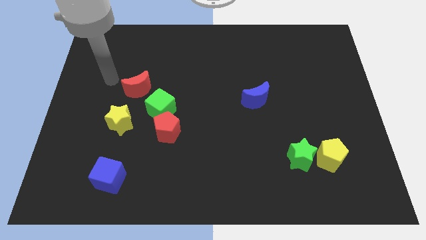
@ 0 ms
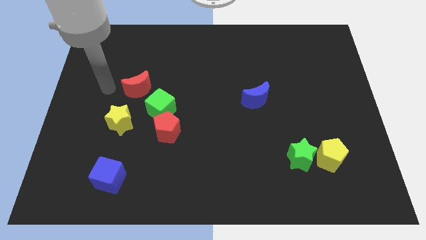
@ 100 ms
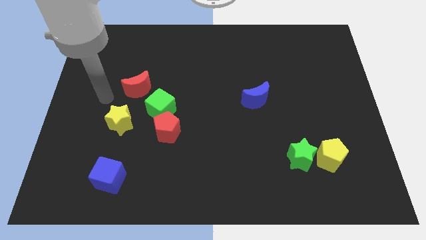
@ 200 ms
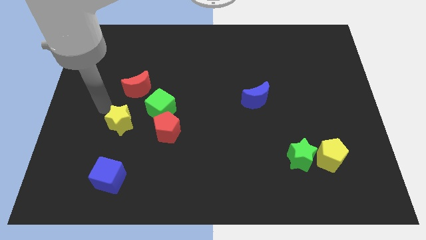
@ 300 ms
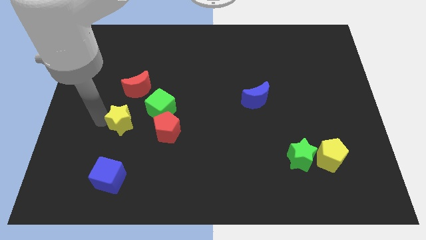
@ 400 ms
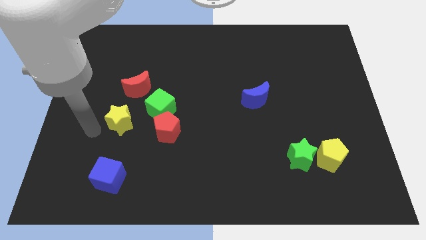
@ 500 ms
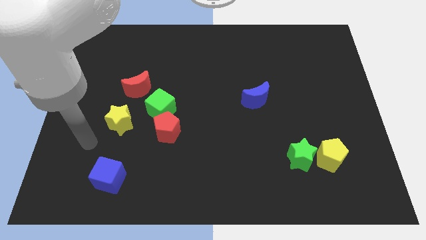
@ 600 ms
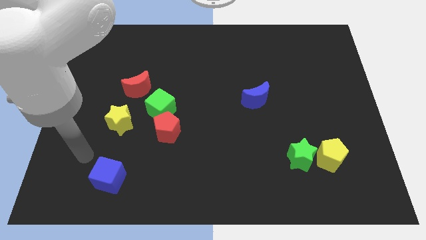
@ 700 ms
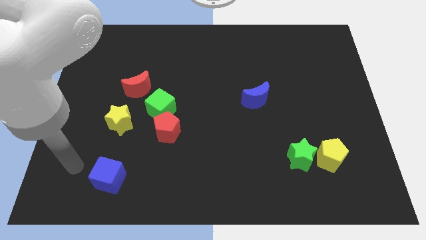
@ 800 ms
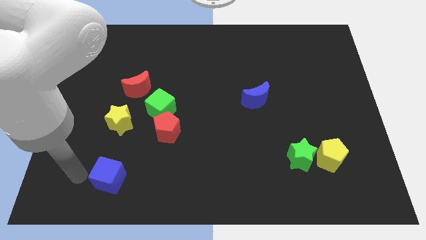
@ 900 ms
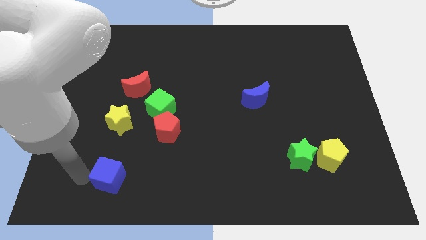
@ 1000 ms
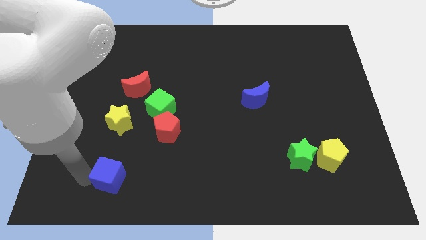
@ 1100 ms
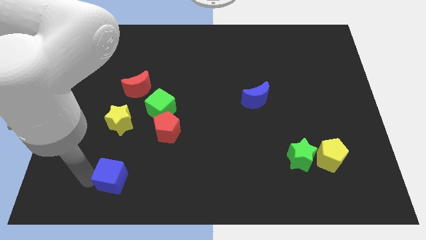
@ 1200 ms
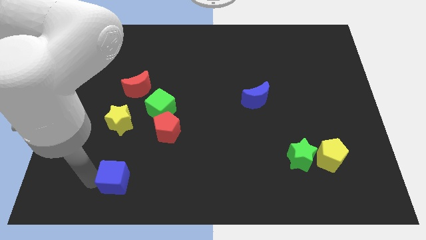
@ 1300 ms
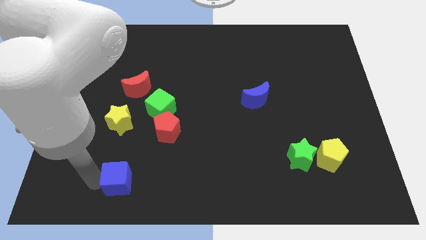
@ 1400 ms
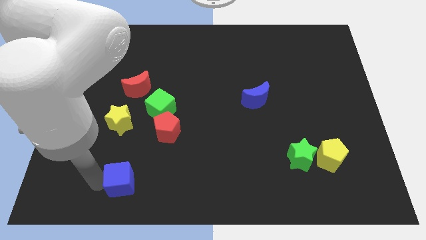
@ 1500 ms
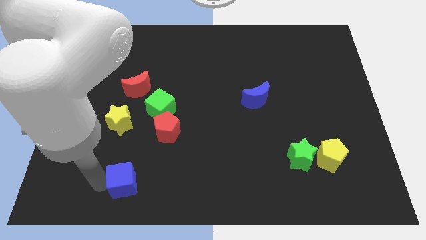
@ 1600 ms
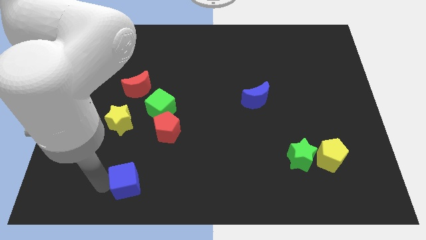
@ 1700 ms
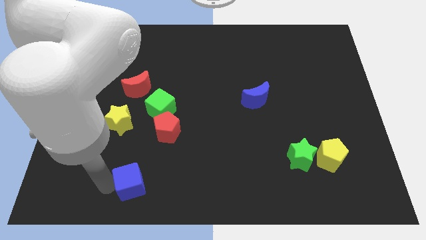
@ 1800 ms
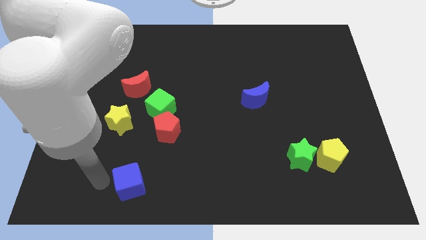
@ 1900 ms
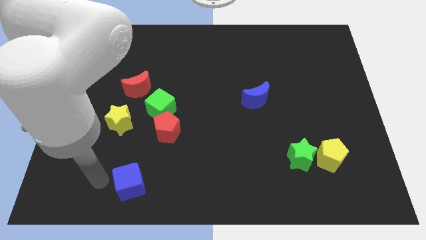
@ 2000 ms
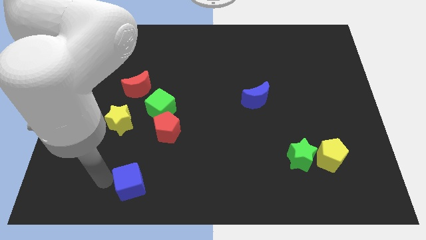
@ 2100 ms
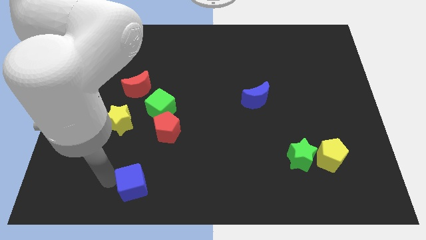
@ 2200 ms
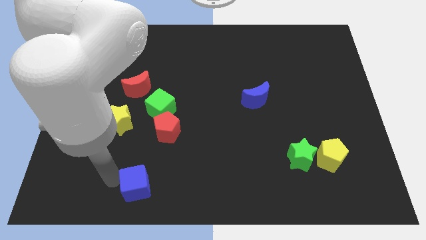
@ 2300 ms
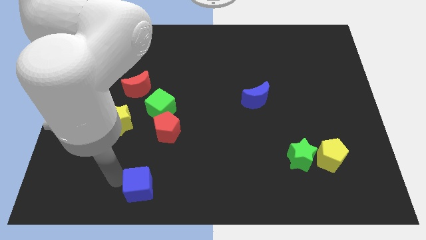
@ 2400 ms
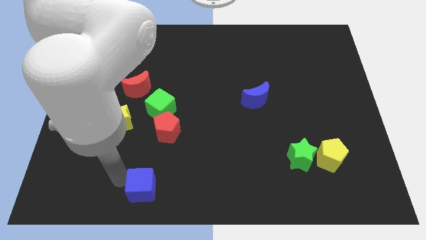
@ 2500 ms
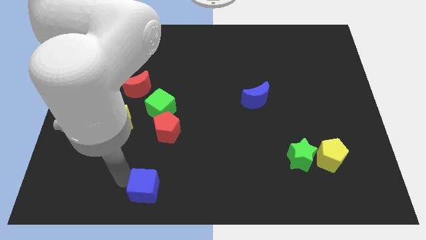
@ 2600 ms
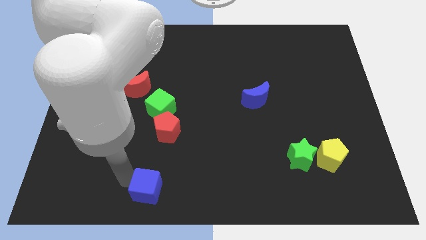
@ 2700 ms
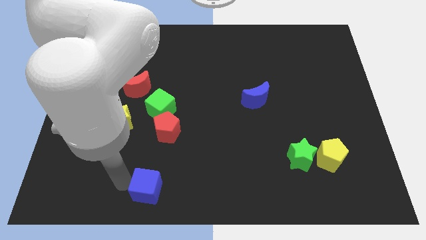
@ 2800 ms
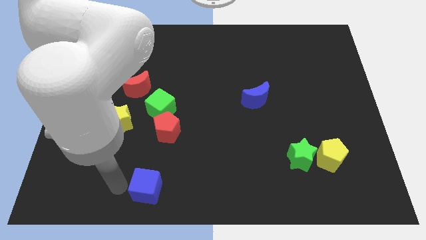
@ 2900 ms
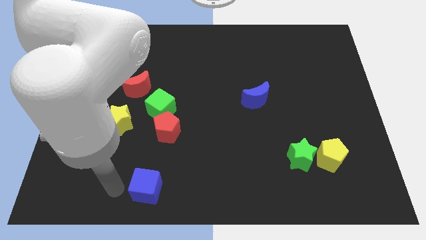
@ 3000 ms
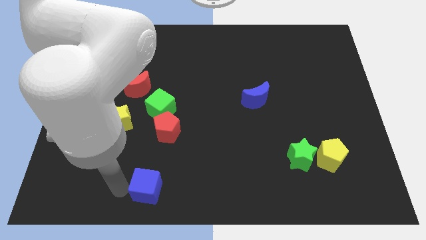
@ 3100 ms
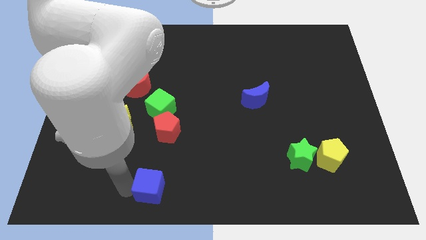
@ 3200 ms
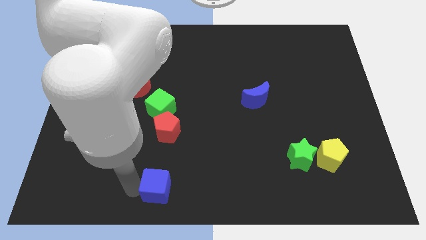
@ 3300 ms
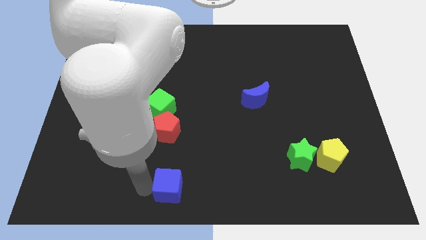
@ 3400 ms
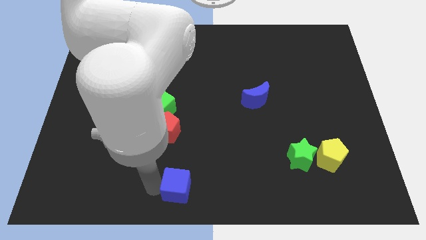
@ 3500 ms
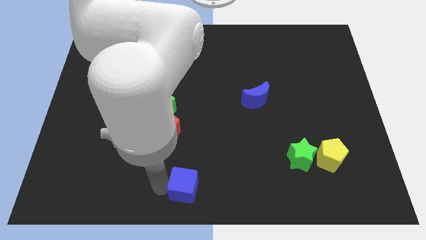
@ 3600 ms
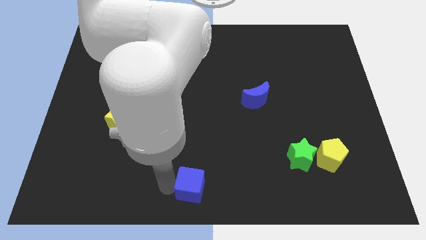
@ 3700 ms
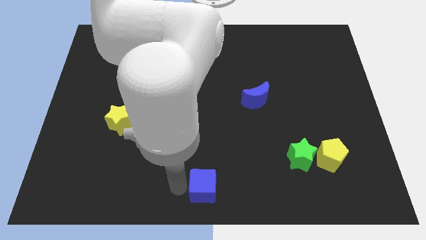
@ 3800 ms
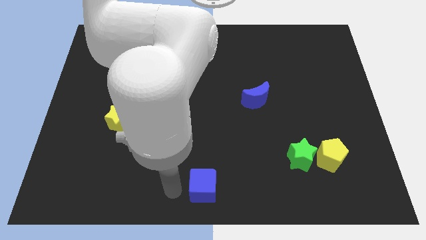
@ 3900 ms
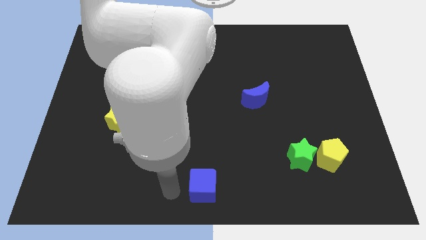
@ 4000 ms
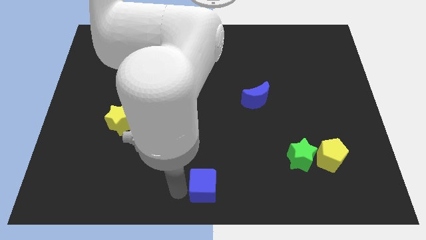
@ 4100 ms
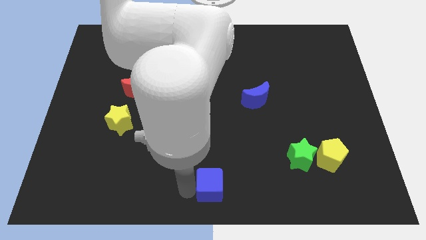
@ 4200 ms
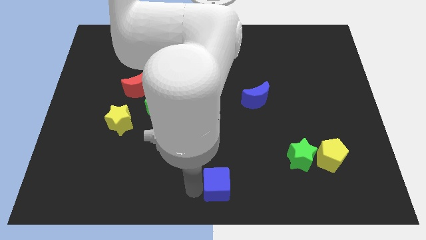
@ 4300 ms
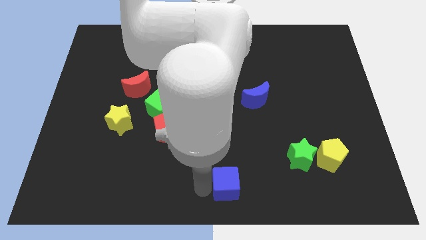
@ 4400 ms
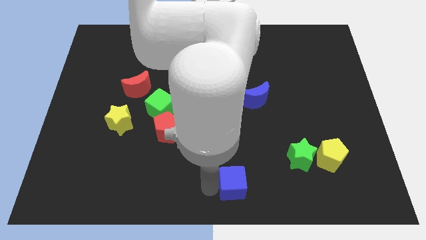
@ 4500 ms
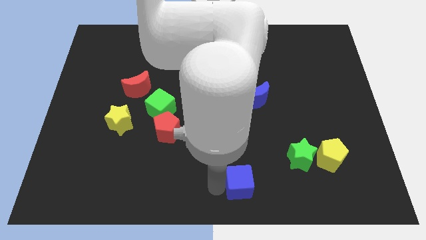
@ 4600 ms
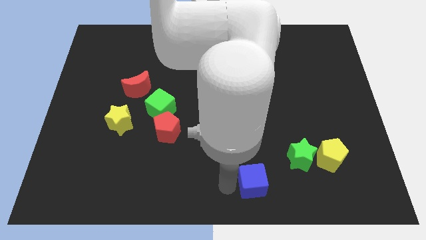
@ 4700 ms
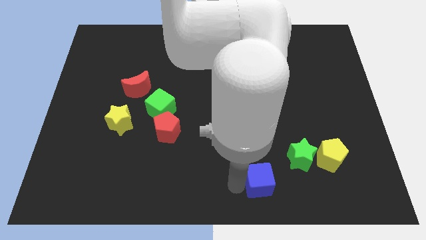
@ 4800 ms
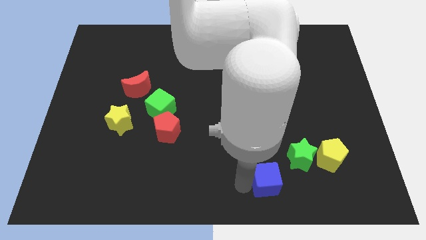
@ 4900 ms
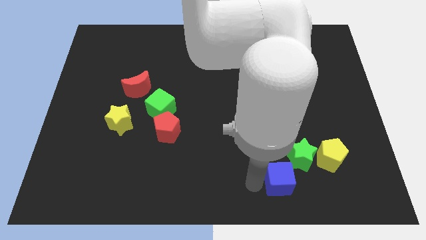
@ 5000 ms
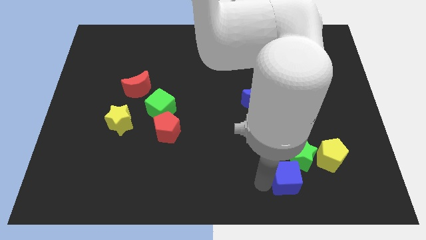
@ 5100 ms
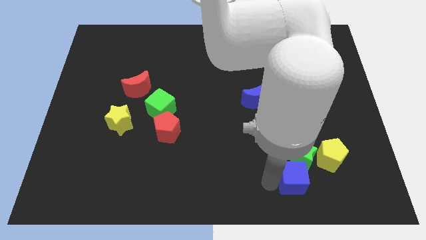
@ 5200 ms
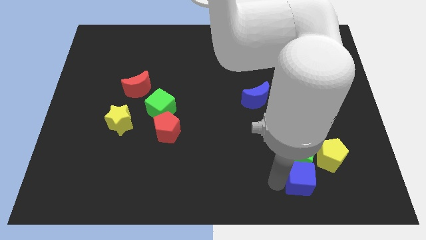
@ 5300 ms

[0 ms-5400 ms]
push the blue cube diagonally down and to the right of the green star

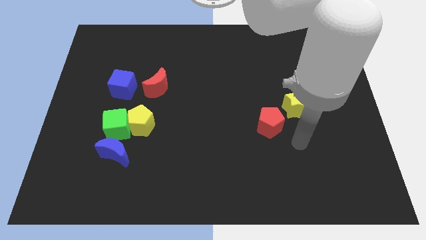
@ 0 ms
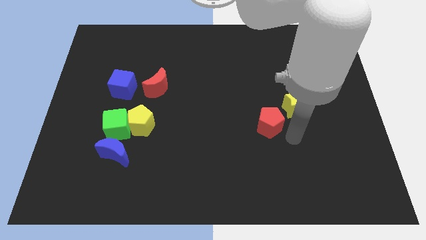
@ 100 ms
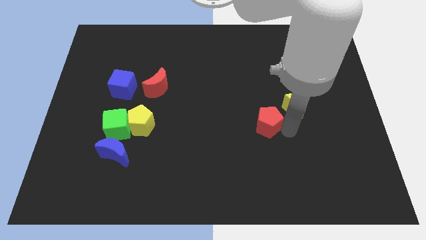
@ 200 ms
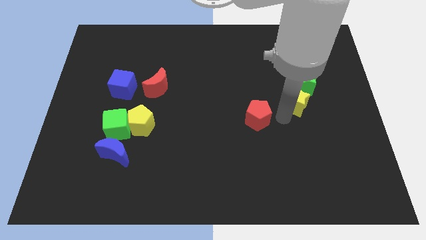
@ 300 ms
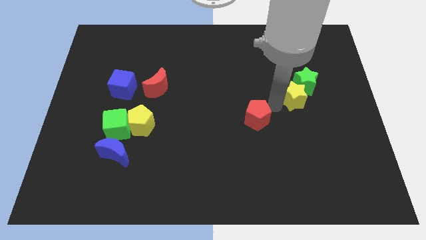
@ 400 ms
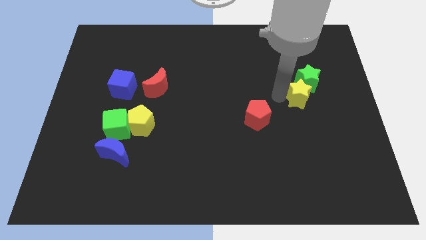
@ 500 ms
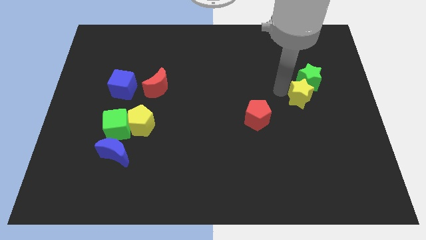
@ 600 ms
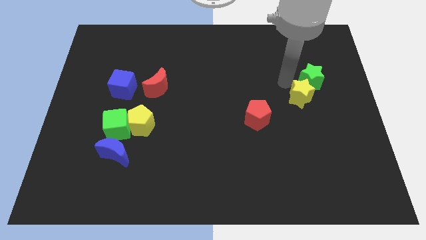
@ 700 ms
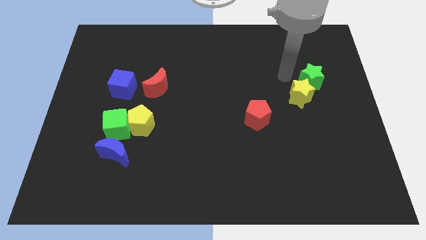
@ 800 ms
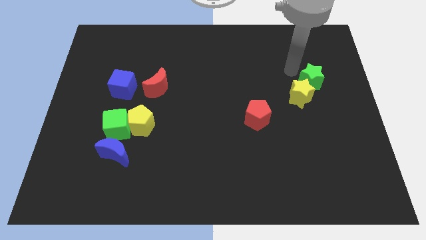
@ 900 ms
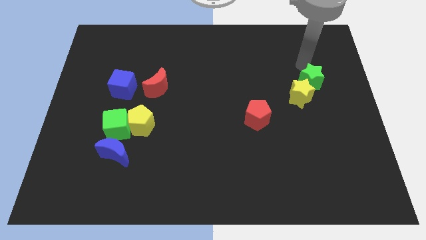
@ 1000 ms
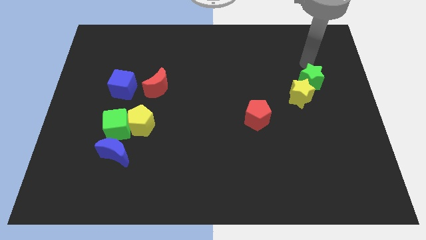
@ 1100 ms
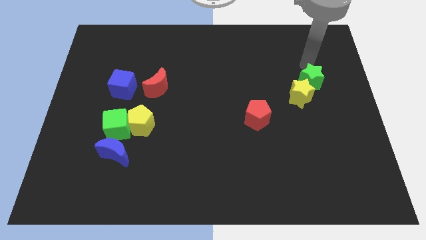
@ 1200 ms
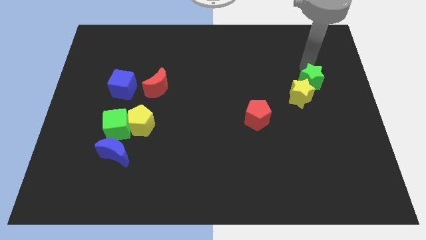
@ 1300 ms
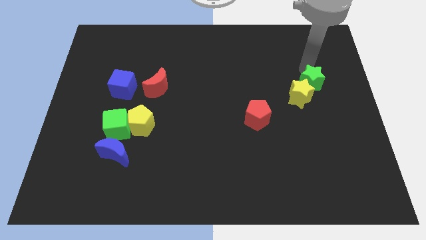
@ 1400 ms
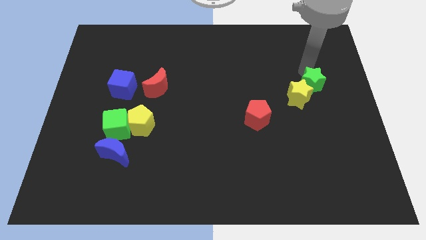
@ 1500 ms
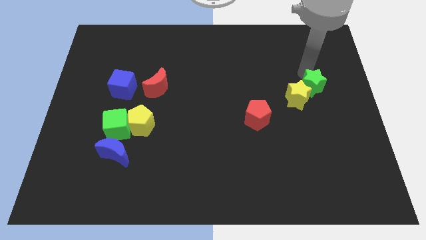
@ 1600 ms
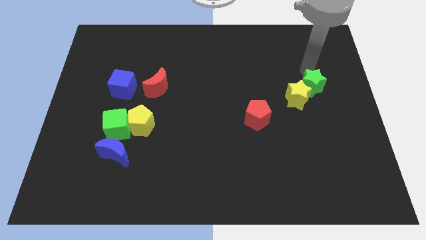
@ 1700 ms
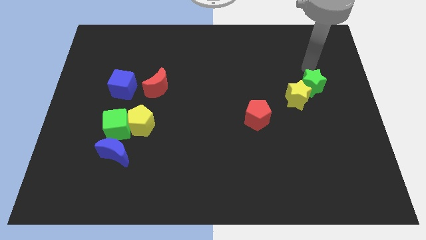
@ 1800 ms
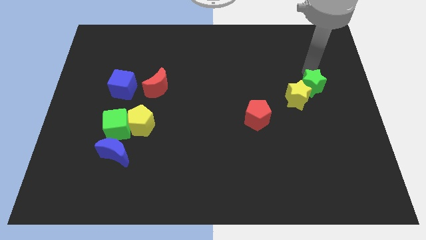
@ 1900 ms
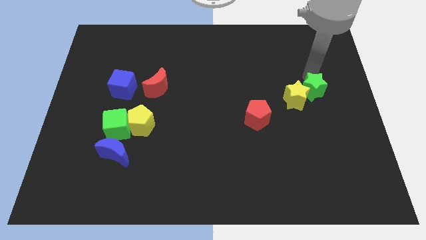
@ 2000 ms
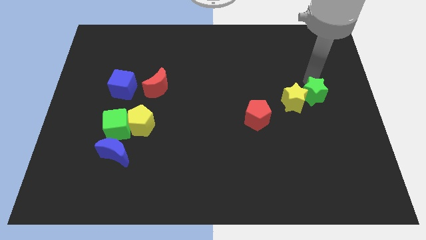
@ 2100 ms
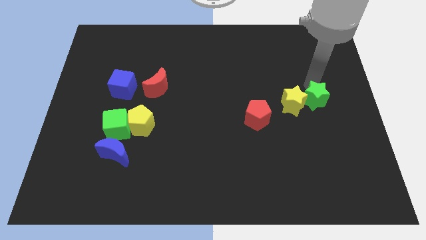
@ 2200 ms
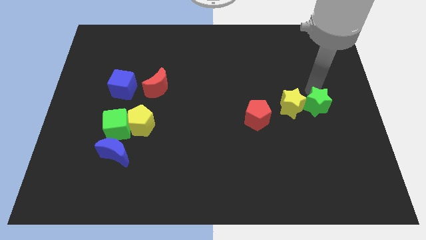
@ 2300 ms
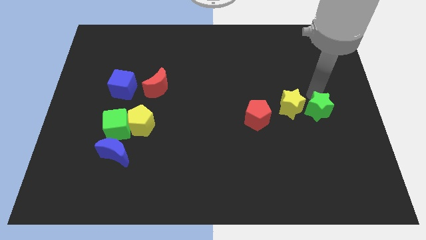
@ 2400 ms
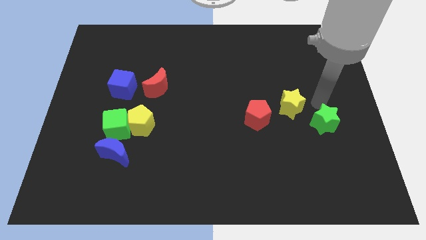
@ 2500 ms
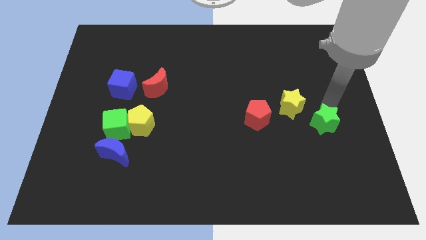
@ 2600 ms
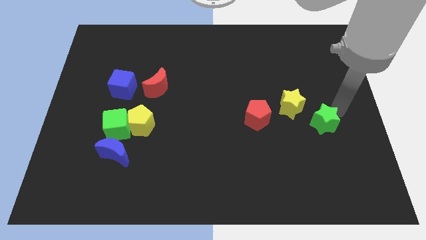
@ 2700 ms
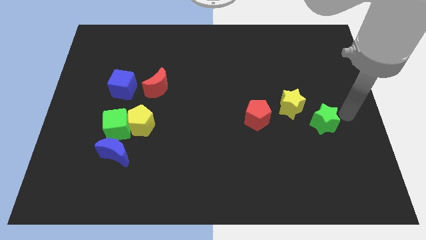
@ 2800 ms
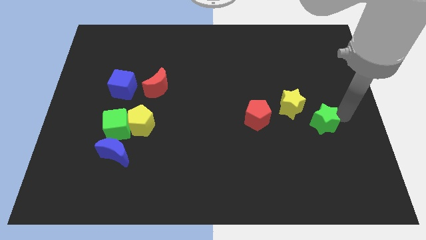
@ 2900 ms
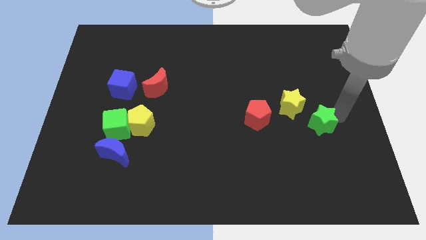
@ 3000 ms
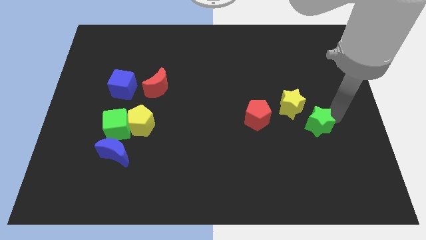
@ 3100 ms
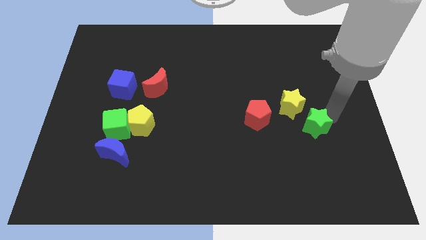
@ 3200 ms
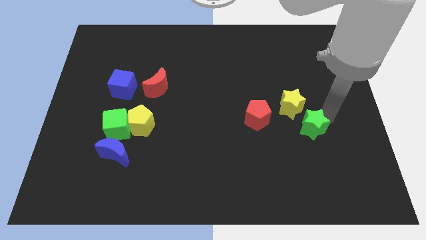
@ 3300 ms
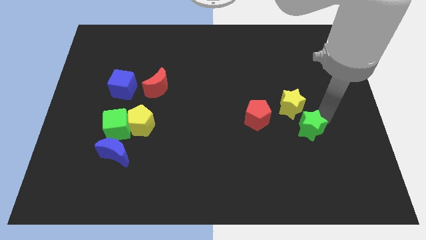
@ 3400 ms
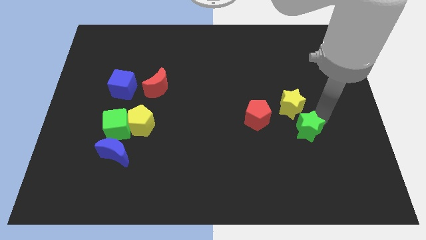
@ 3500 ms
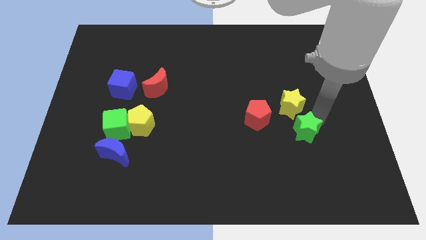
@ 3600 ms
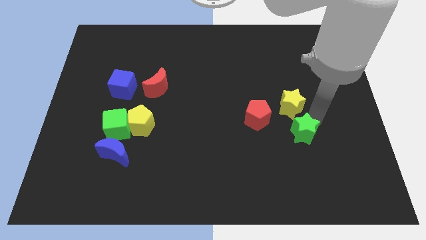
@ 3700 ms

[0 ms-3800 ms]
slide the green star diagonally down and to the right of the red pentagon
